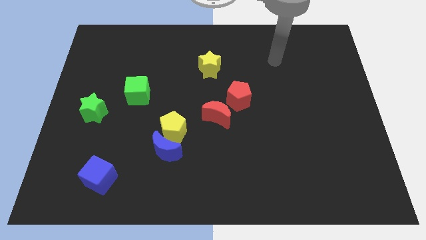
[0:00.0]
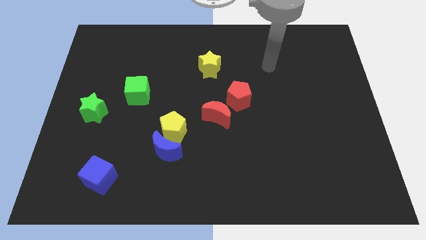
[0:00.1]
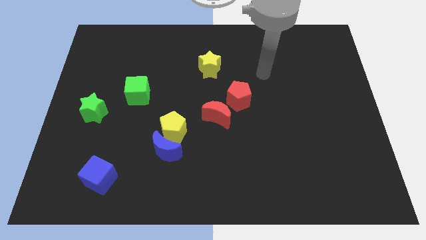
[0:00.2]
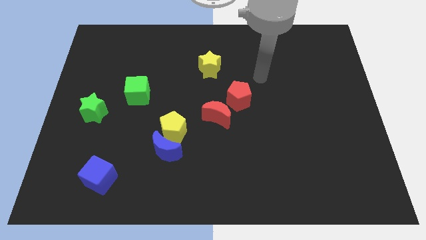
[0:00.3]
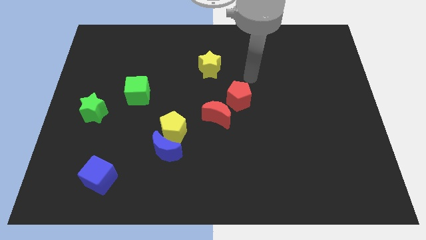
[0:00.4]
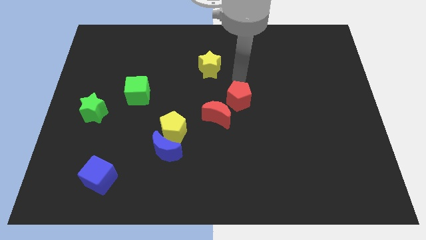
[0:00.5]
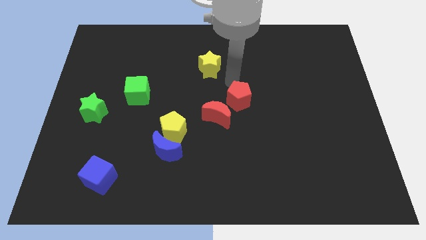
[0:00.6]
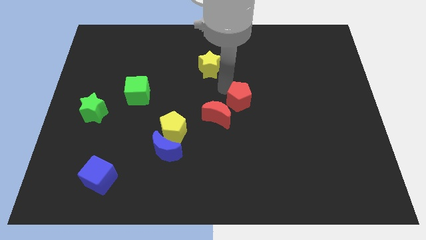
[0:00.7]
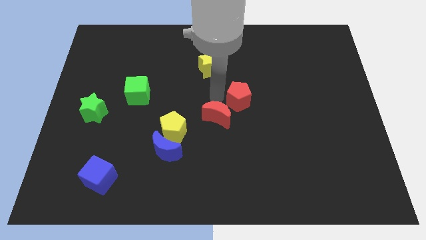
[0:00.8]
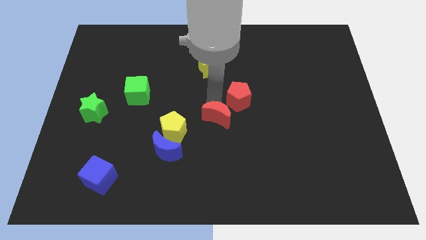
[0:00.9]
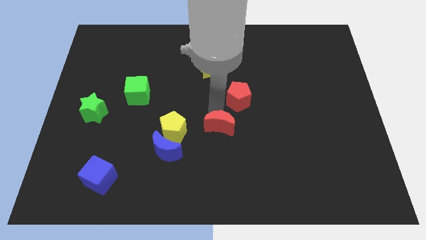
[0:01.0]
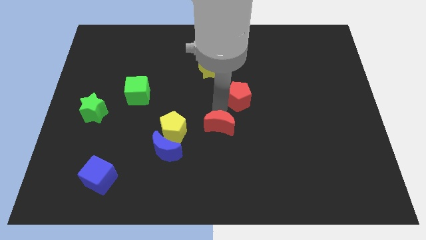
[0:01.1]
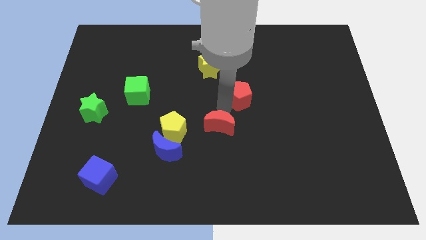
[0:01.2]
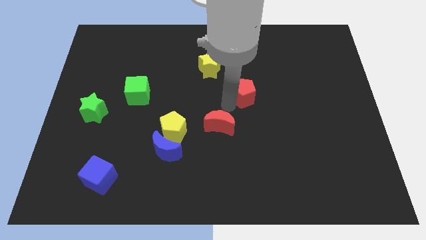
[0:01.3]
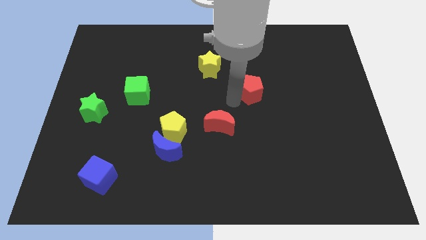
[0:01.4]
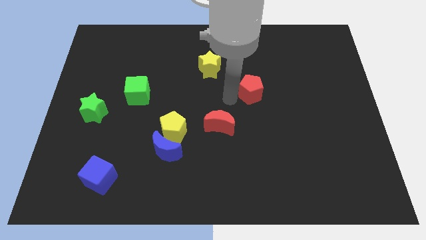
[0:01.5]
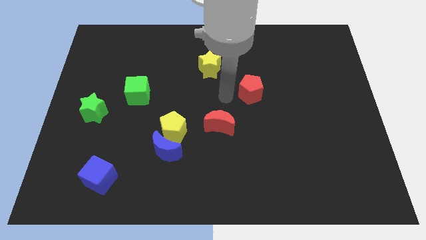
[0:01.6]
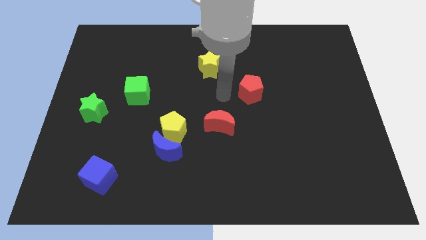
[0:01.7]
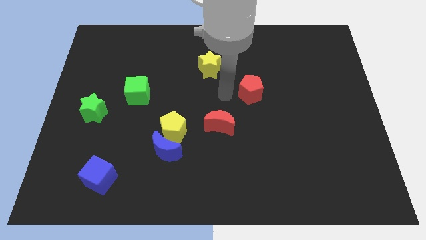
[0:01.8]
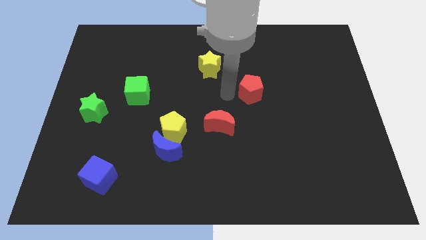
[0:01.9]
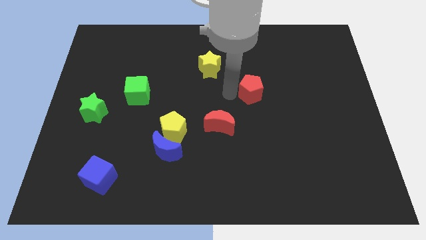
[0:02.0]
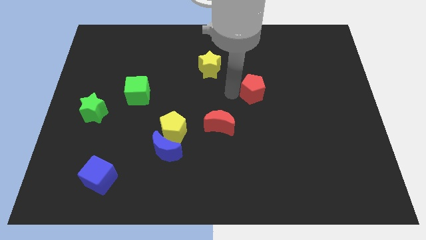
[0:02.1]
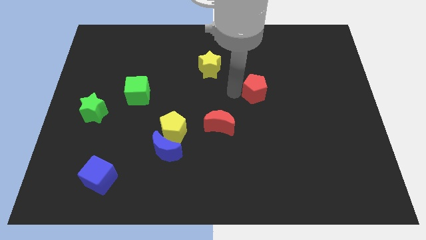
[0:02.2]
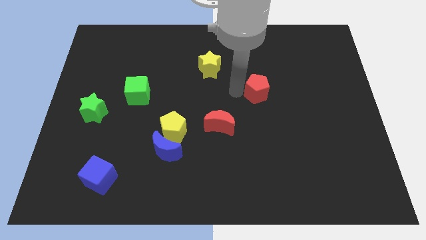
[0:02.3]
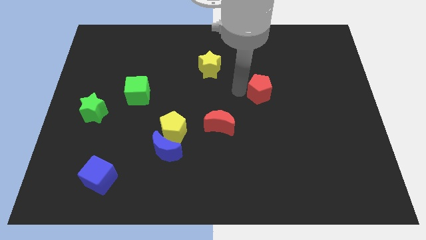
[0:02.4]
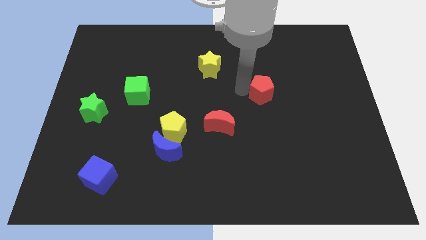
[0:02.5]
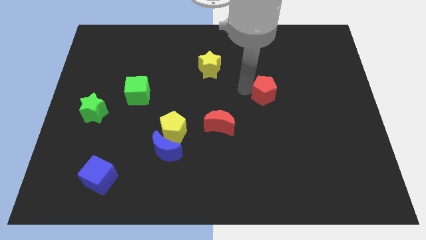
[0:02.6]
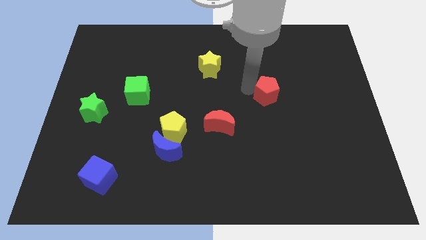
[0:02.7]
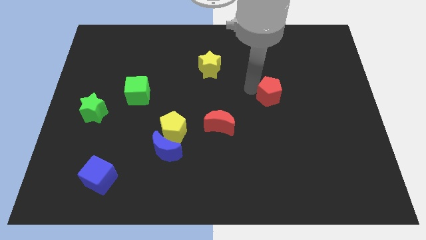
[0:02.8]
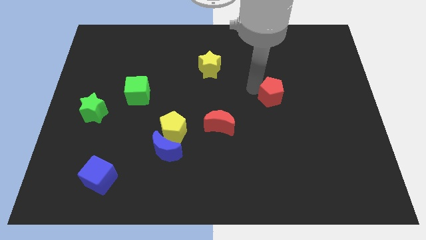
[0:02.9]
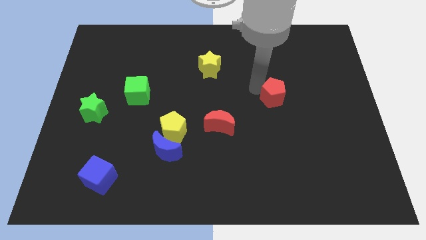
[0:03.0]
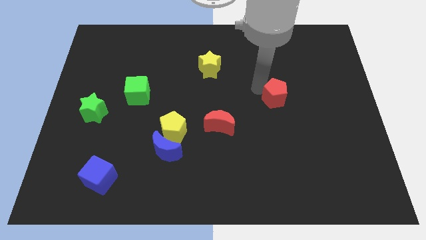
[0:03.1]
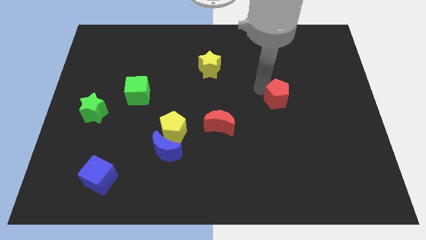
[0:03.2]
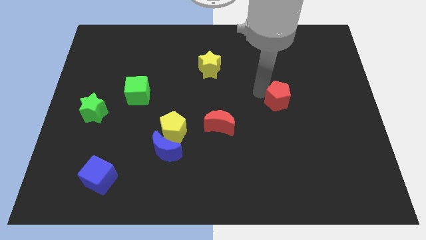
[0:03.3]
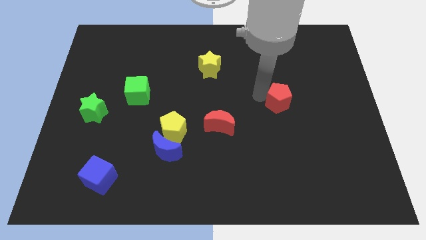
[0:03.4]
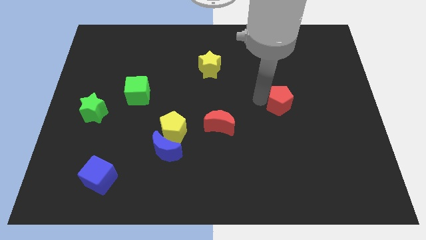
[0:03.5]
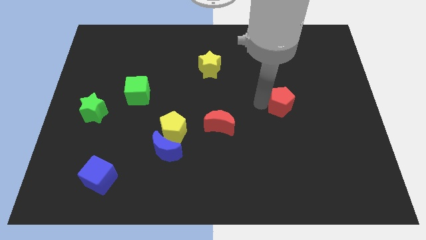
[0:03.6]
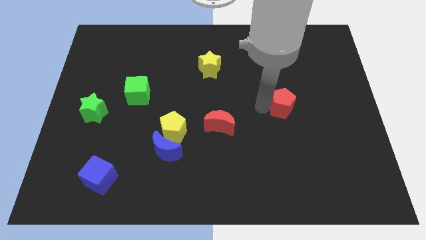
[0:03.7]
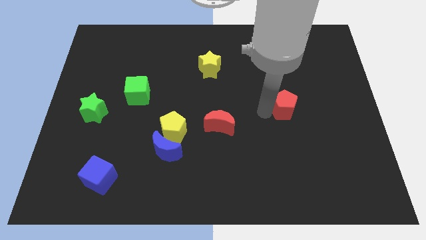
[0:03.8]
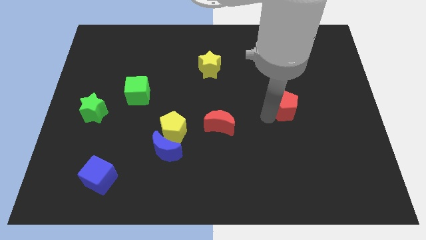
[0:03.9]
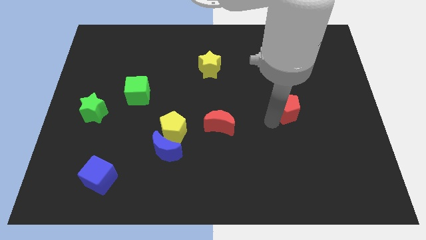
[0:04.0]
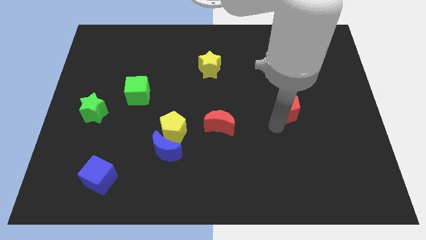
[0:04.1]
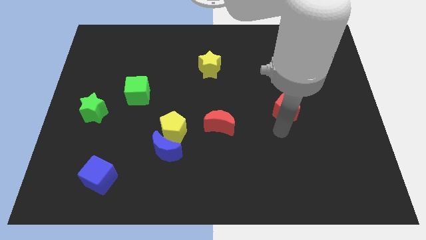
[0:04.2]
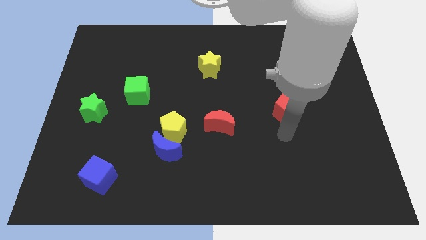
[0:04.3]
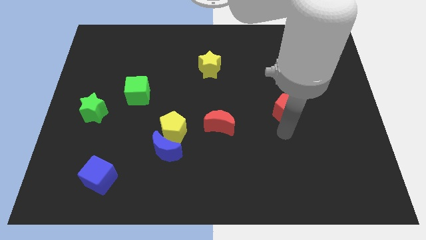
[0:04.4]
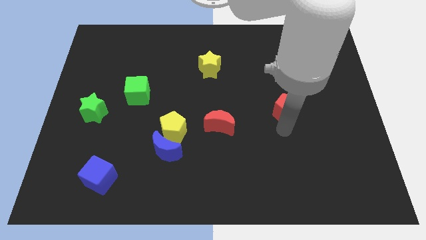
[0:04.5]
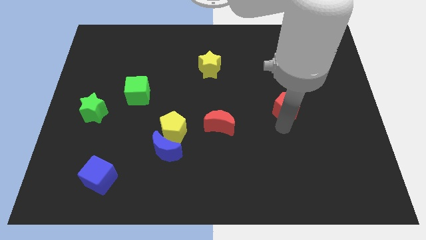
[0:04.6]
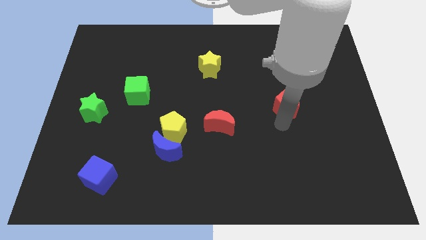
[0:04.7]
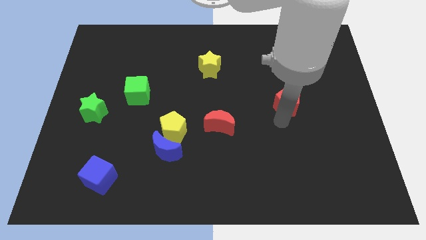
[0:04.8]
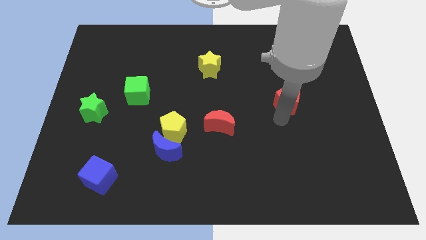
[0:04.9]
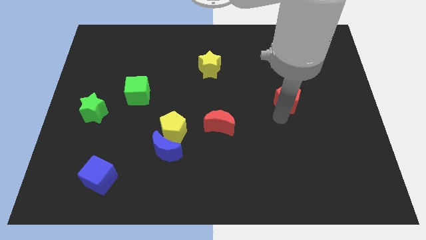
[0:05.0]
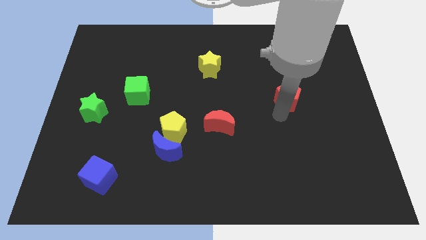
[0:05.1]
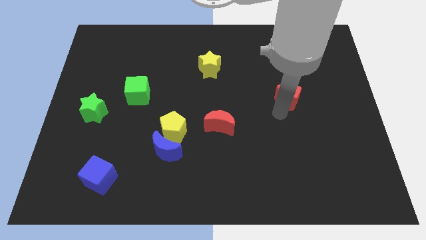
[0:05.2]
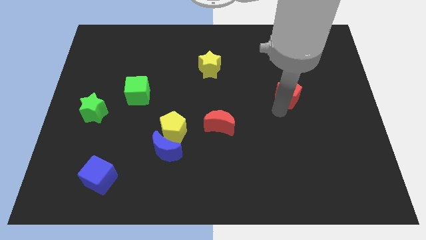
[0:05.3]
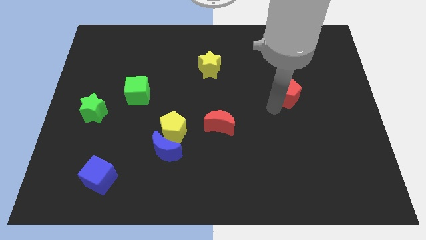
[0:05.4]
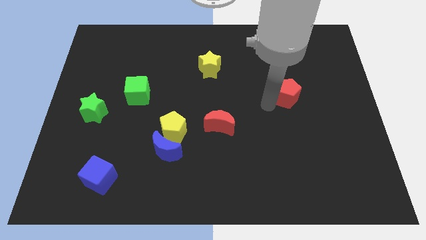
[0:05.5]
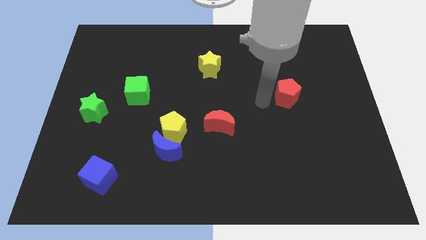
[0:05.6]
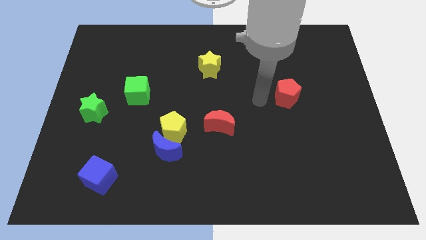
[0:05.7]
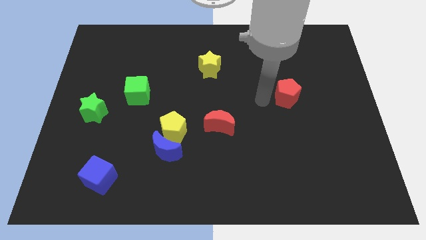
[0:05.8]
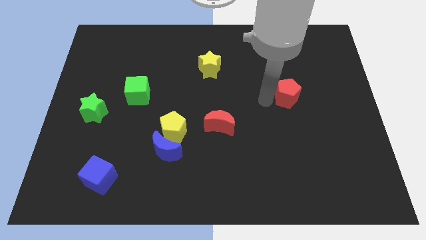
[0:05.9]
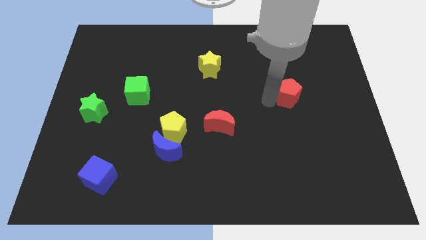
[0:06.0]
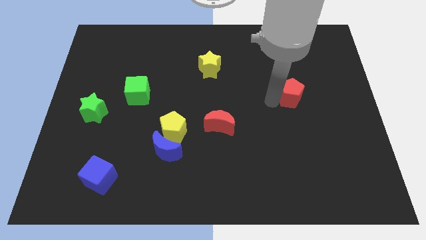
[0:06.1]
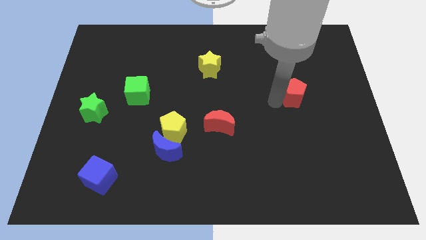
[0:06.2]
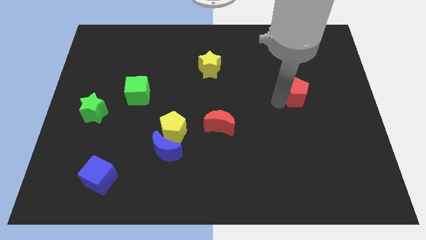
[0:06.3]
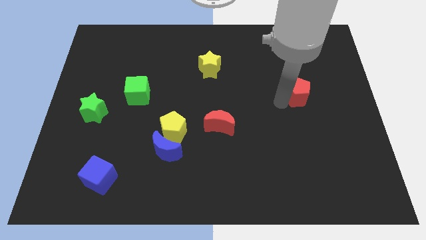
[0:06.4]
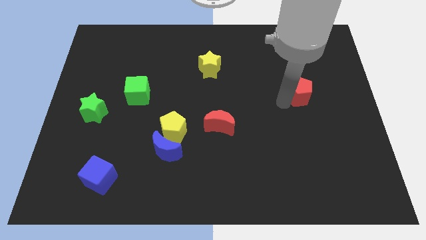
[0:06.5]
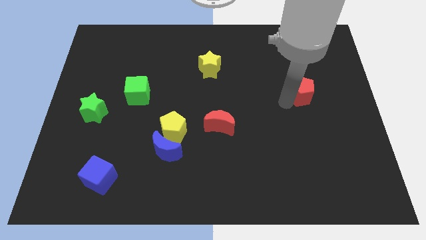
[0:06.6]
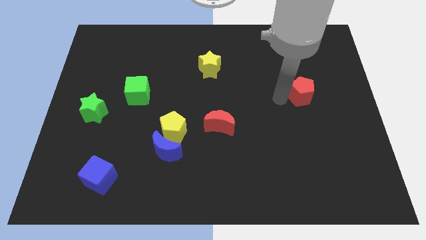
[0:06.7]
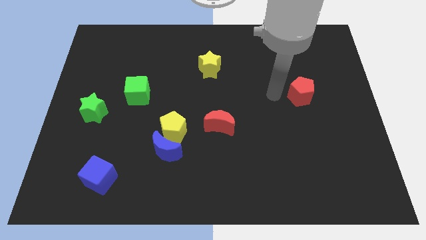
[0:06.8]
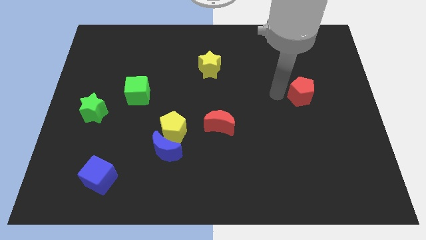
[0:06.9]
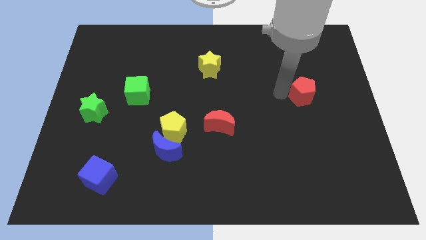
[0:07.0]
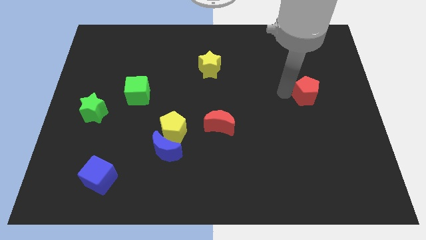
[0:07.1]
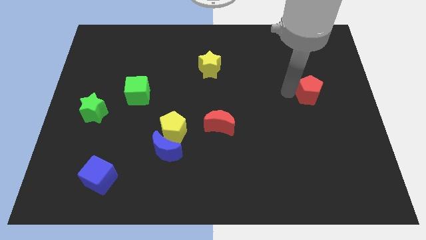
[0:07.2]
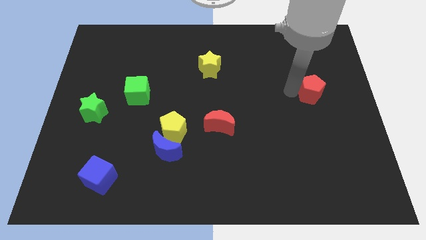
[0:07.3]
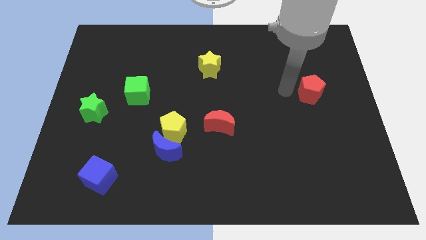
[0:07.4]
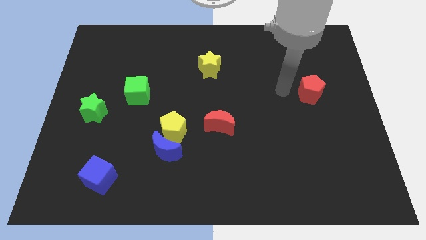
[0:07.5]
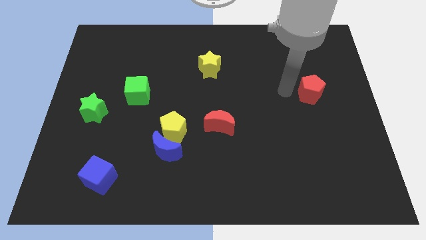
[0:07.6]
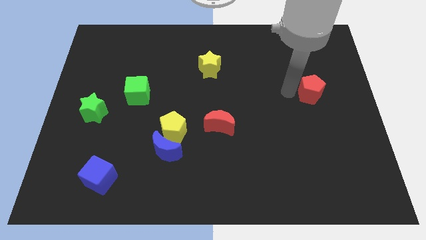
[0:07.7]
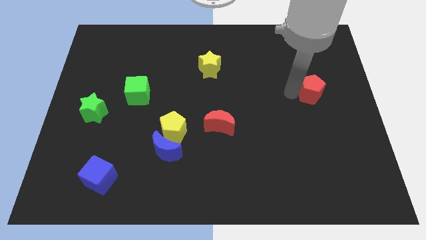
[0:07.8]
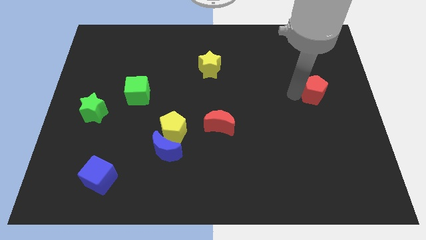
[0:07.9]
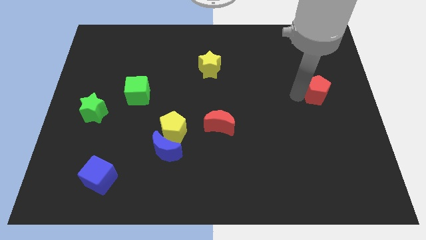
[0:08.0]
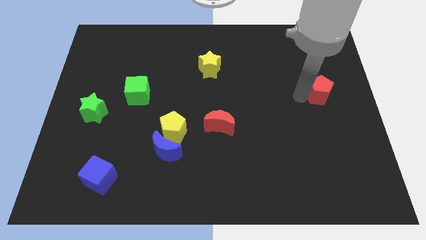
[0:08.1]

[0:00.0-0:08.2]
slide the red pentagon to the right side
